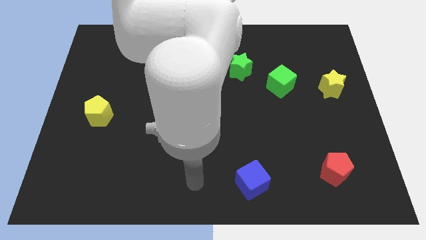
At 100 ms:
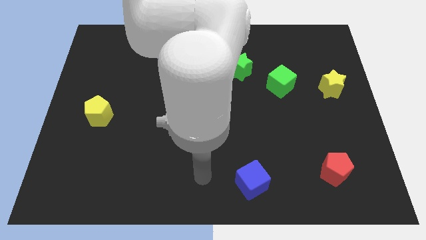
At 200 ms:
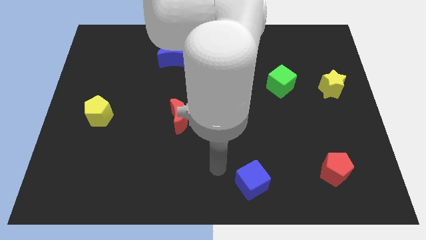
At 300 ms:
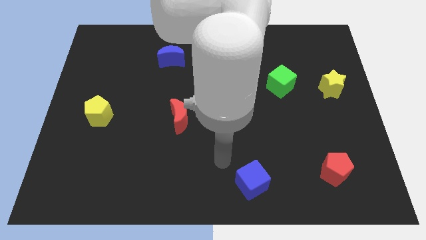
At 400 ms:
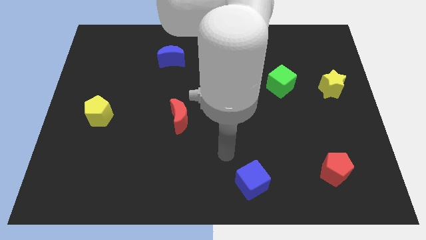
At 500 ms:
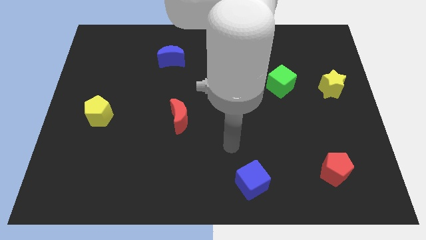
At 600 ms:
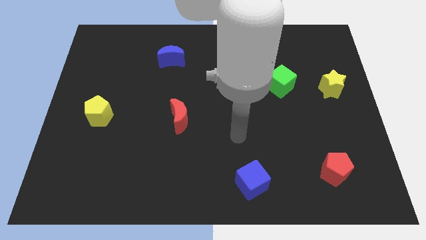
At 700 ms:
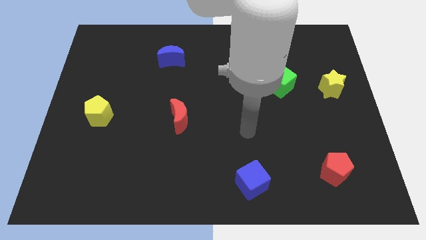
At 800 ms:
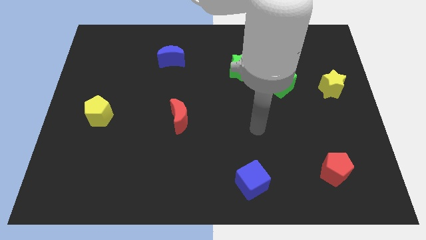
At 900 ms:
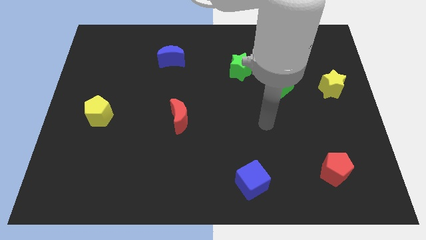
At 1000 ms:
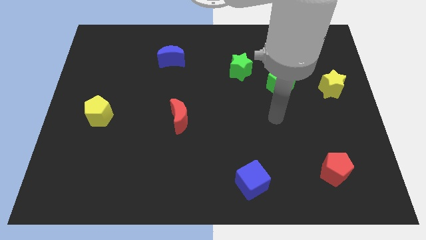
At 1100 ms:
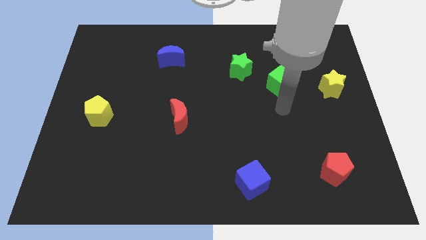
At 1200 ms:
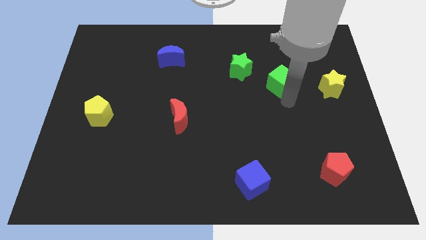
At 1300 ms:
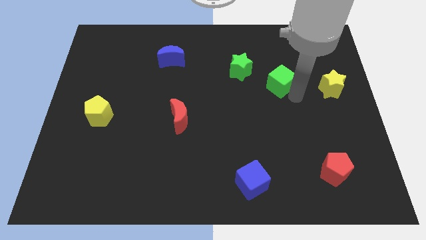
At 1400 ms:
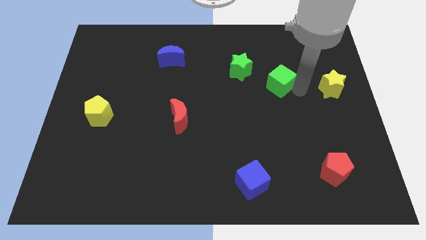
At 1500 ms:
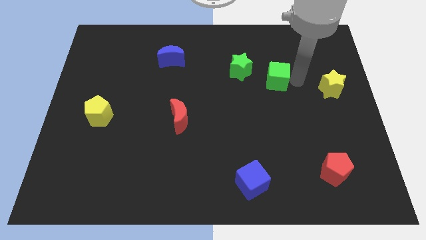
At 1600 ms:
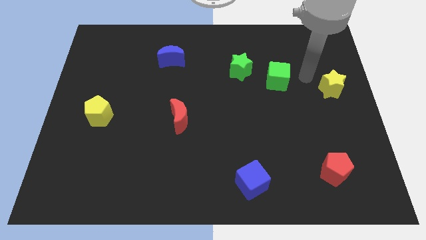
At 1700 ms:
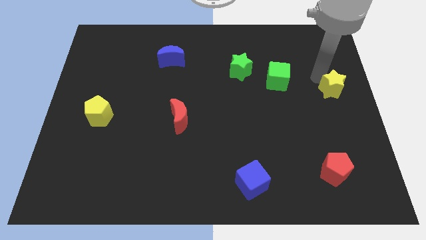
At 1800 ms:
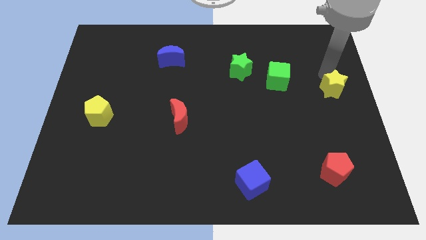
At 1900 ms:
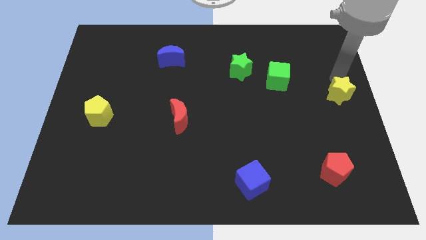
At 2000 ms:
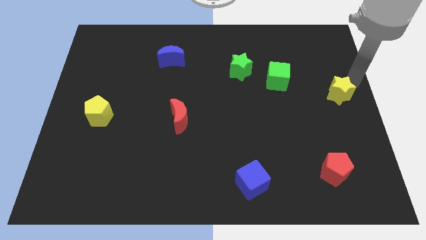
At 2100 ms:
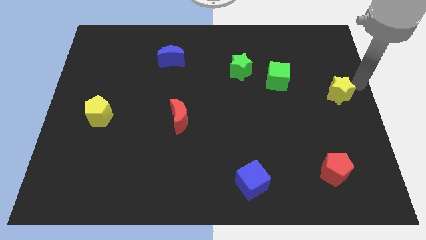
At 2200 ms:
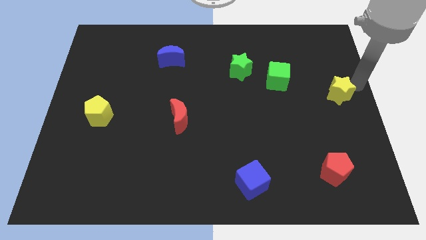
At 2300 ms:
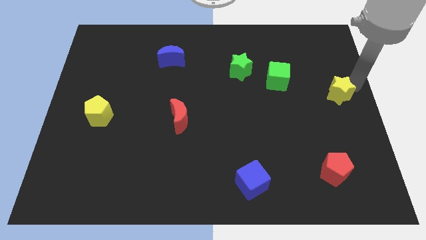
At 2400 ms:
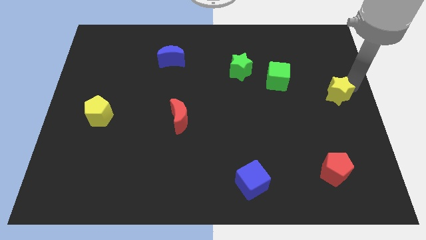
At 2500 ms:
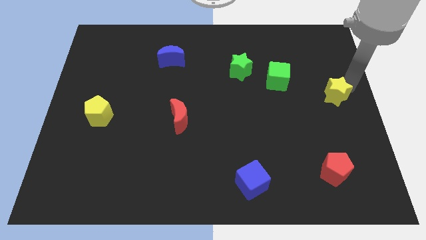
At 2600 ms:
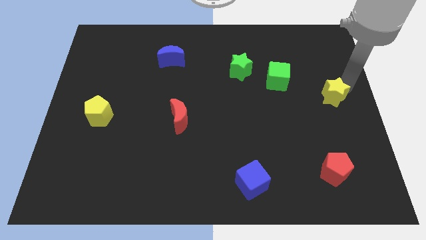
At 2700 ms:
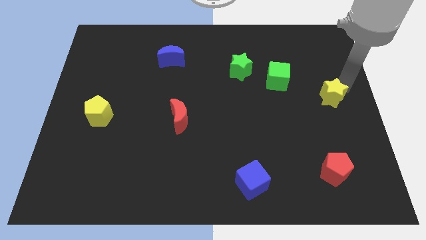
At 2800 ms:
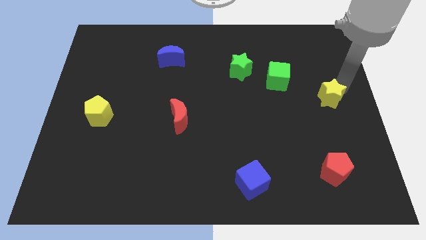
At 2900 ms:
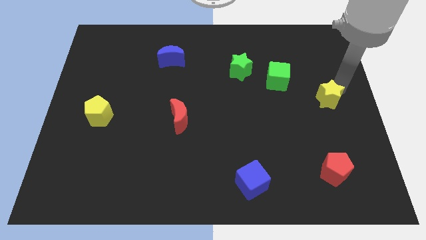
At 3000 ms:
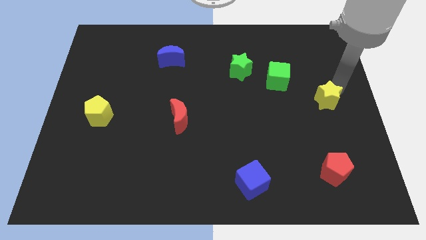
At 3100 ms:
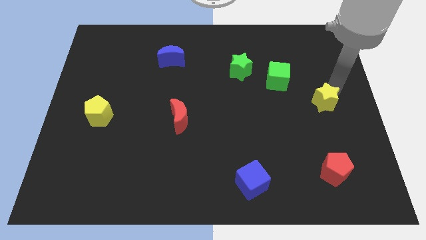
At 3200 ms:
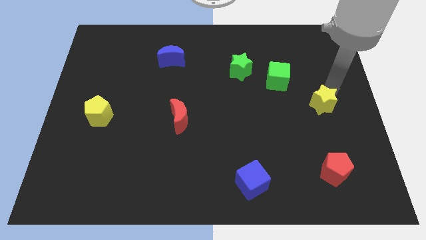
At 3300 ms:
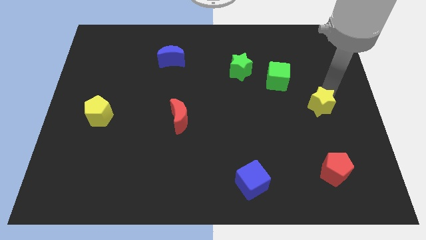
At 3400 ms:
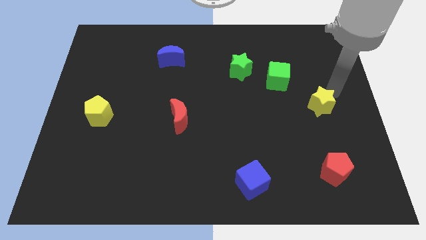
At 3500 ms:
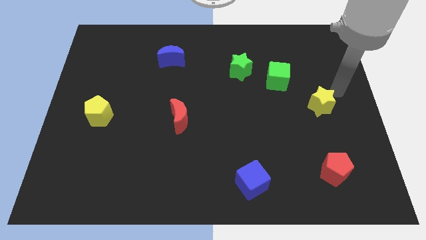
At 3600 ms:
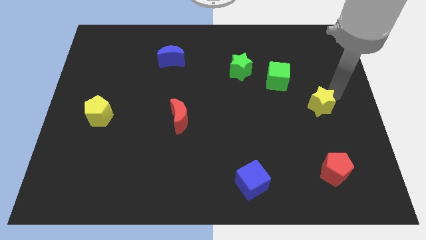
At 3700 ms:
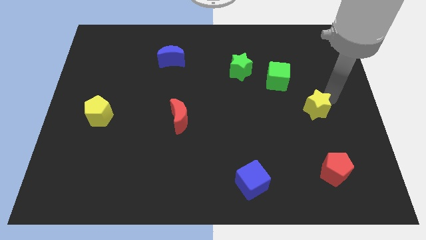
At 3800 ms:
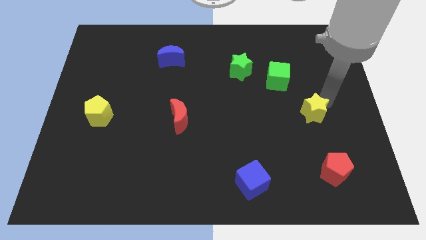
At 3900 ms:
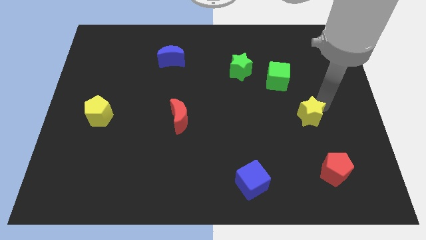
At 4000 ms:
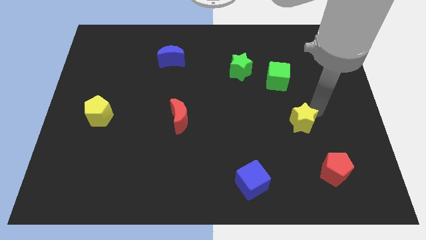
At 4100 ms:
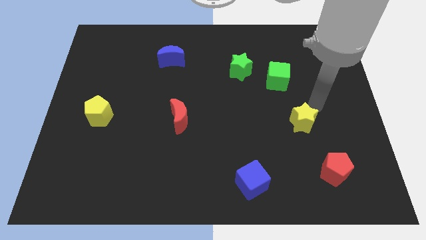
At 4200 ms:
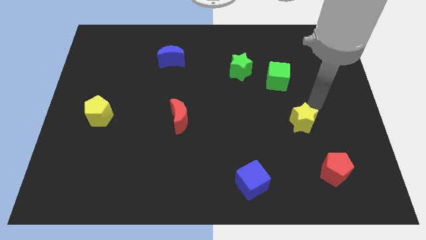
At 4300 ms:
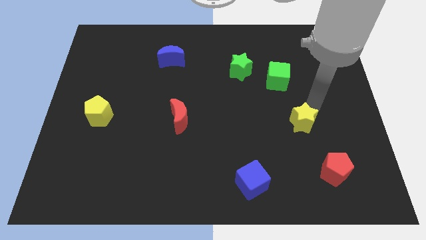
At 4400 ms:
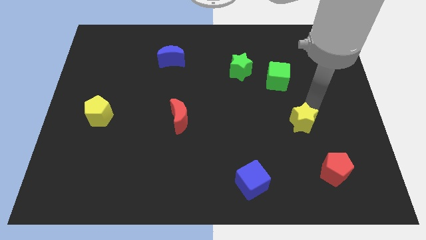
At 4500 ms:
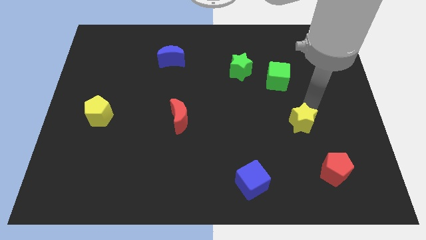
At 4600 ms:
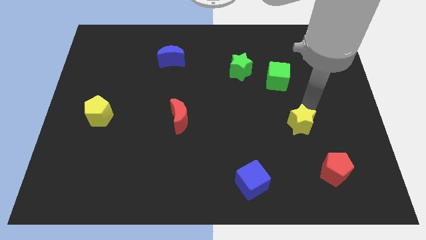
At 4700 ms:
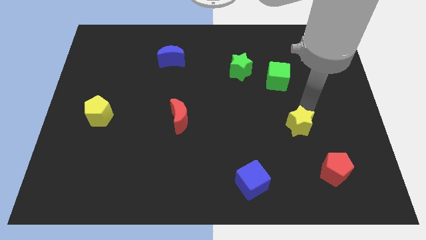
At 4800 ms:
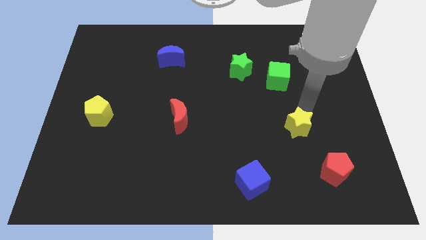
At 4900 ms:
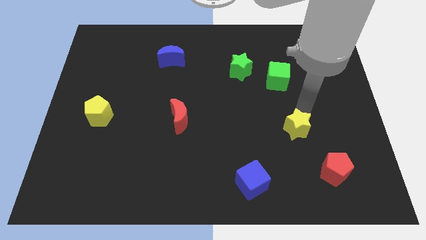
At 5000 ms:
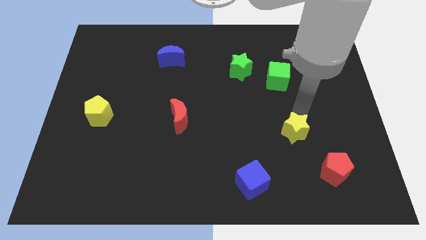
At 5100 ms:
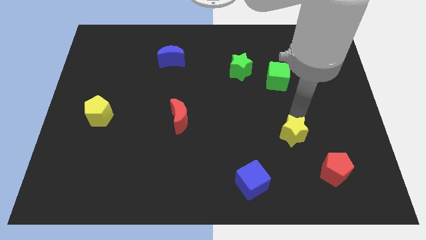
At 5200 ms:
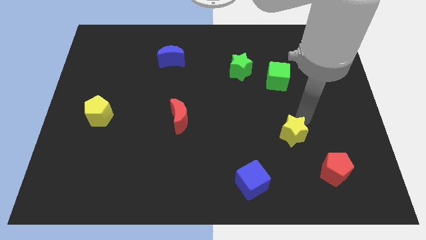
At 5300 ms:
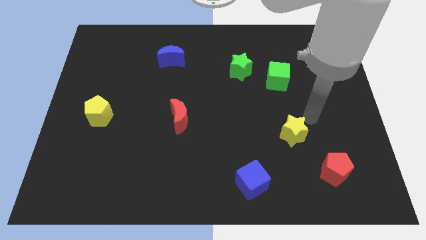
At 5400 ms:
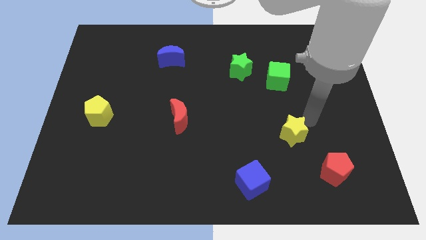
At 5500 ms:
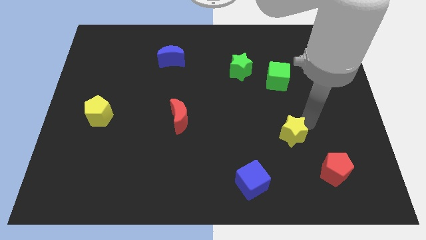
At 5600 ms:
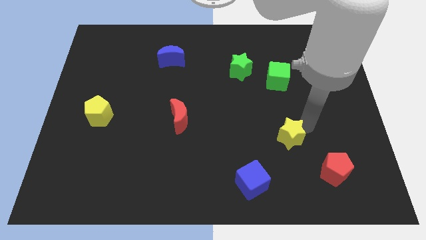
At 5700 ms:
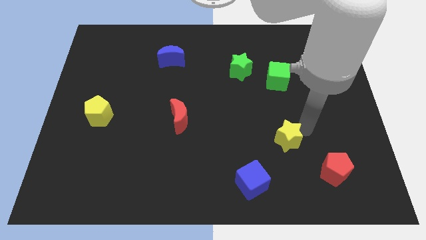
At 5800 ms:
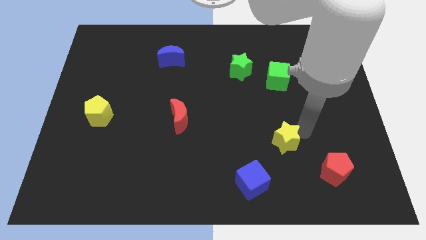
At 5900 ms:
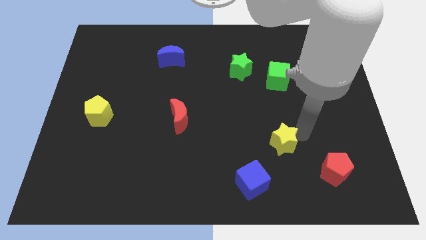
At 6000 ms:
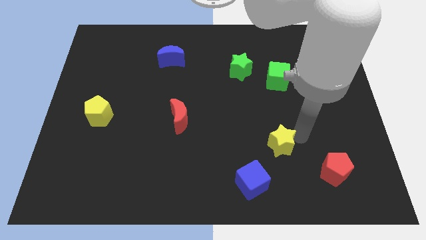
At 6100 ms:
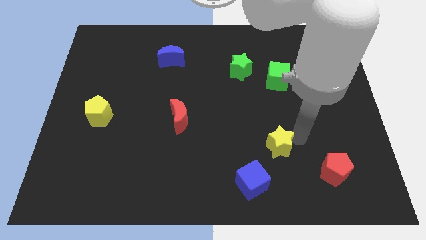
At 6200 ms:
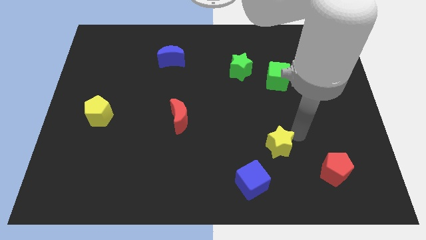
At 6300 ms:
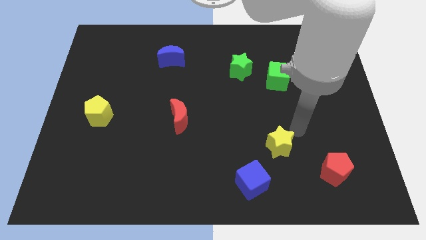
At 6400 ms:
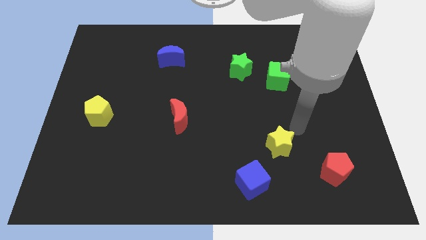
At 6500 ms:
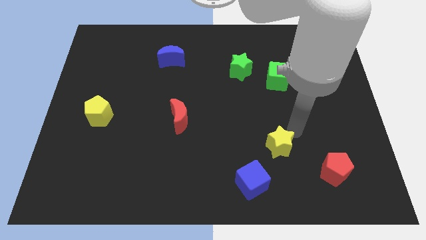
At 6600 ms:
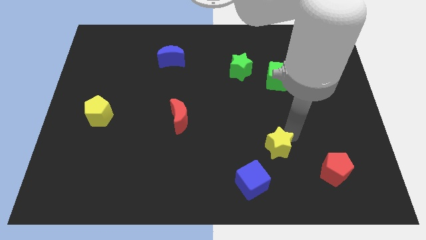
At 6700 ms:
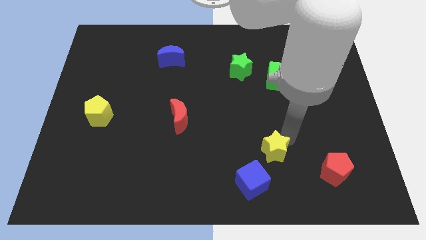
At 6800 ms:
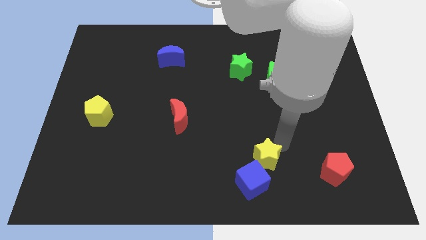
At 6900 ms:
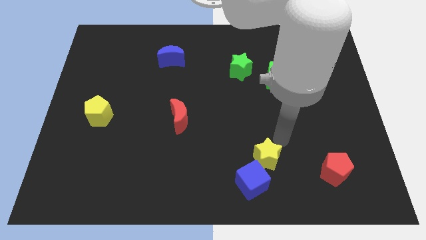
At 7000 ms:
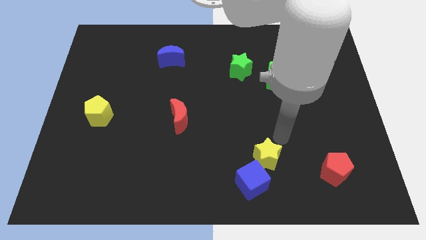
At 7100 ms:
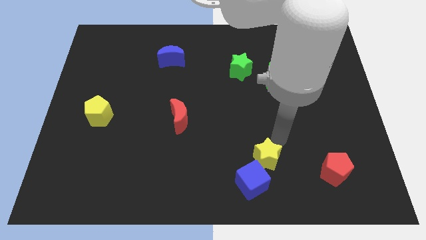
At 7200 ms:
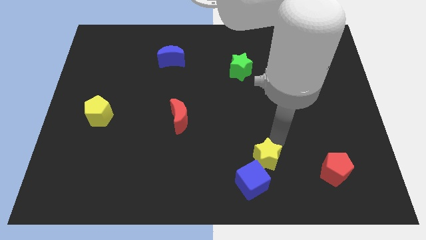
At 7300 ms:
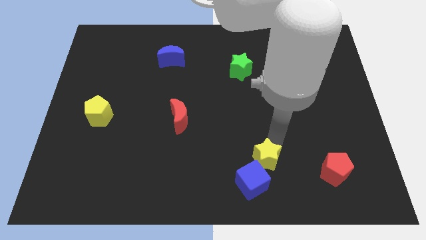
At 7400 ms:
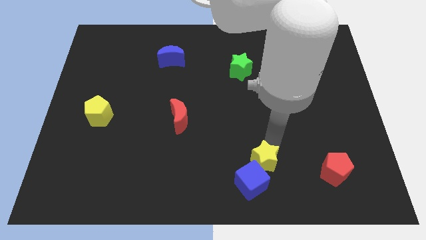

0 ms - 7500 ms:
put the yellow star next to the blue cube
